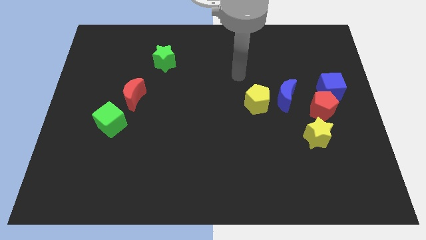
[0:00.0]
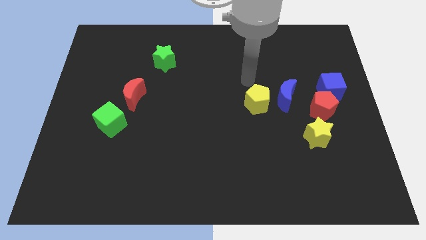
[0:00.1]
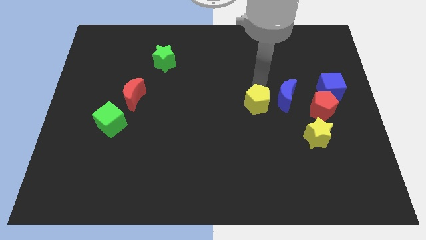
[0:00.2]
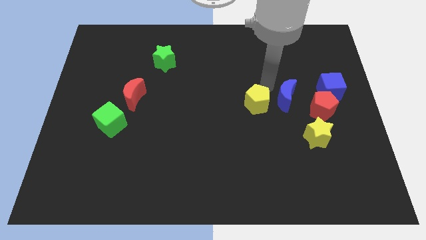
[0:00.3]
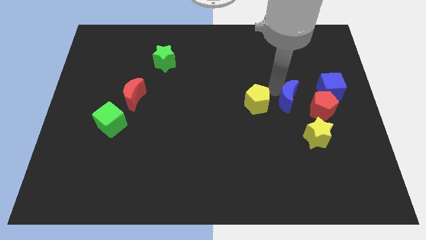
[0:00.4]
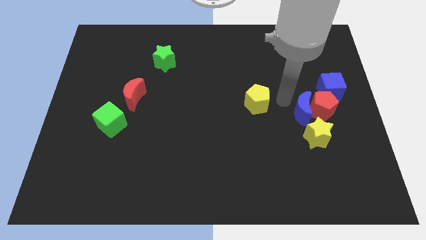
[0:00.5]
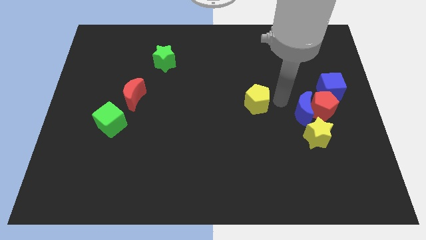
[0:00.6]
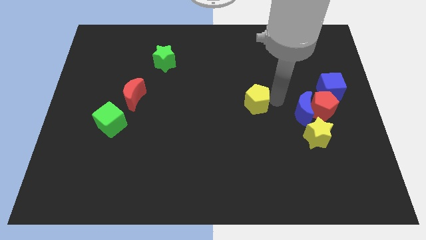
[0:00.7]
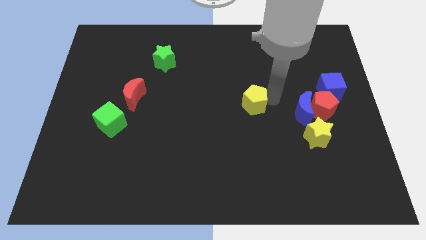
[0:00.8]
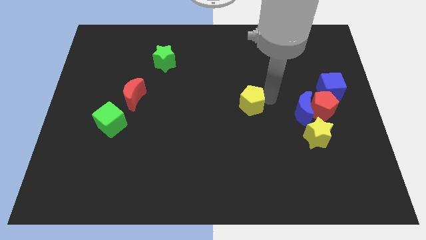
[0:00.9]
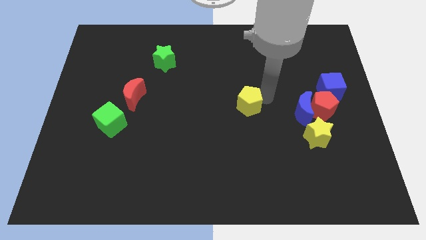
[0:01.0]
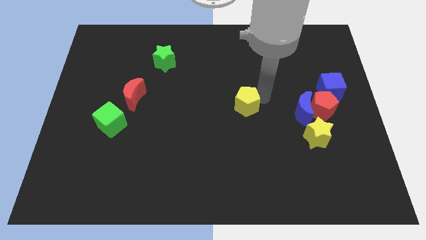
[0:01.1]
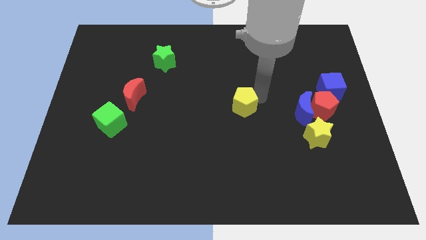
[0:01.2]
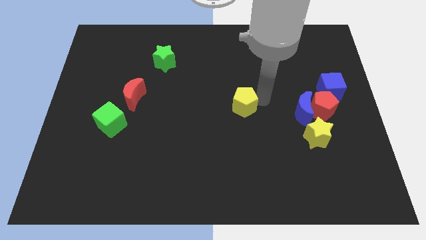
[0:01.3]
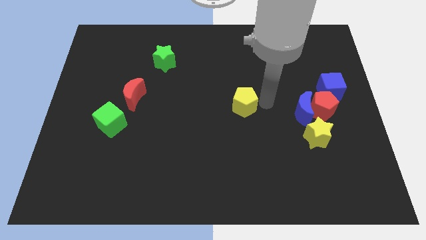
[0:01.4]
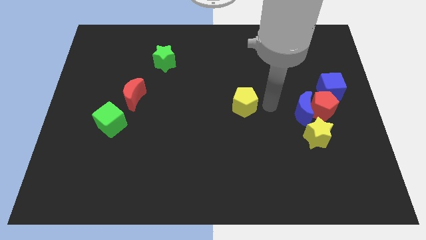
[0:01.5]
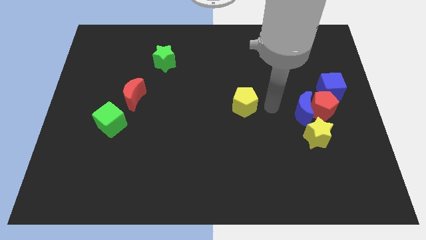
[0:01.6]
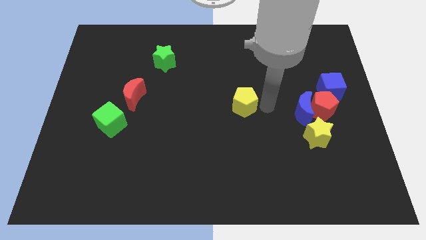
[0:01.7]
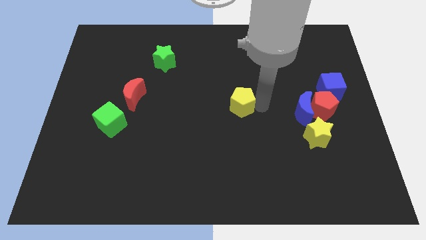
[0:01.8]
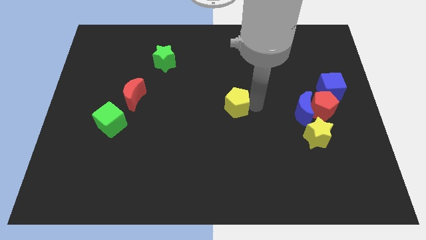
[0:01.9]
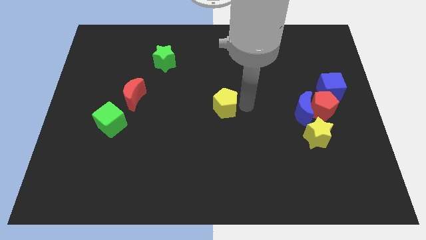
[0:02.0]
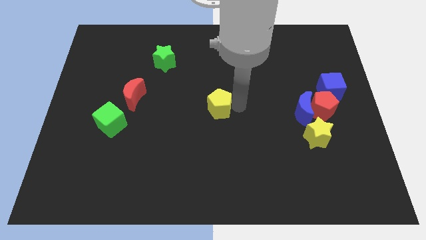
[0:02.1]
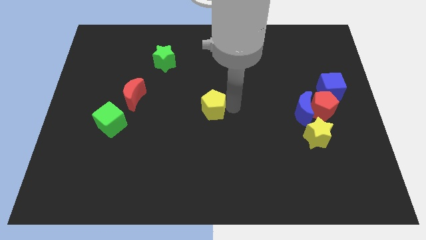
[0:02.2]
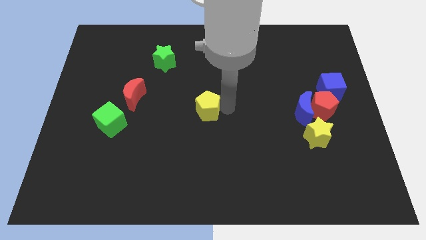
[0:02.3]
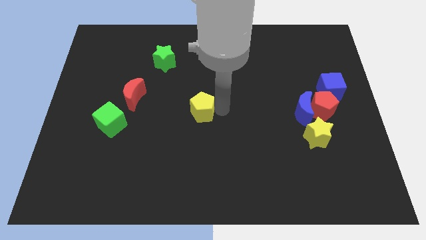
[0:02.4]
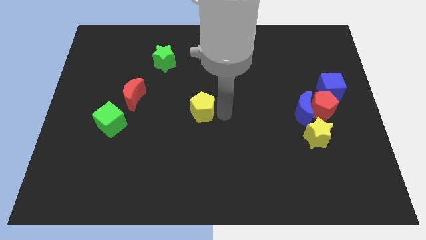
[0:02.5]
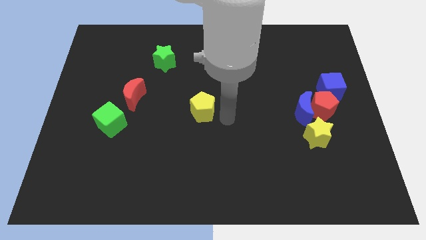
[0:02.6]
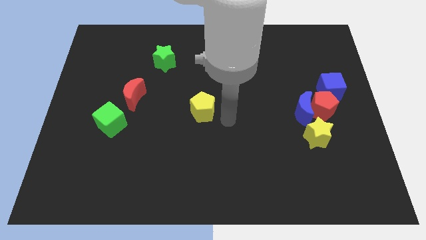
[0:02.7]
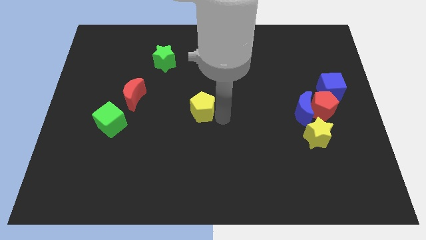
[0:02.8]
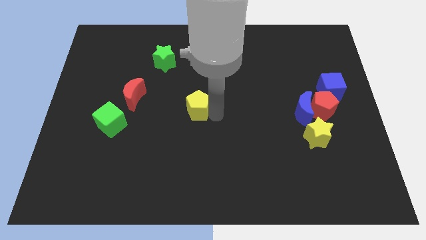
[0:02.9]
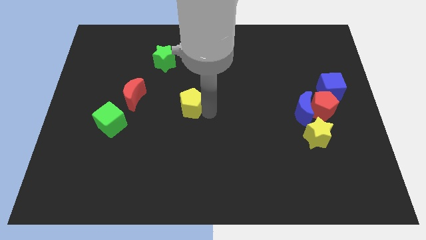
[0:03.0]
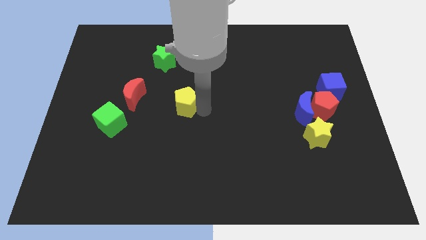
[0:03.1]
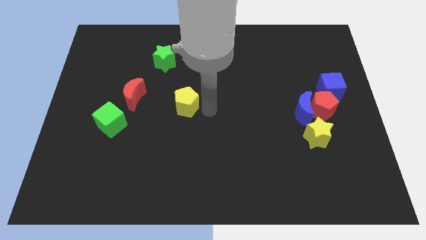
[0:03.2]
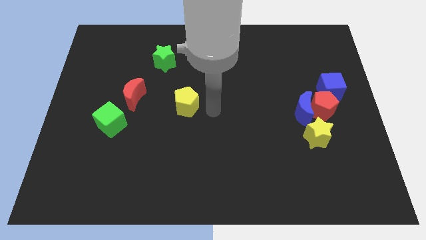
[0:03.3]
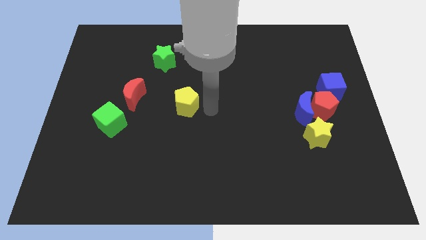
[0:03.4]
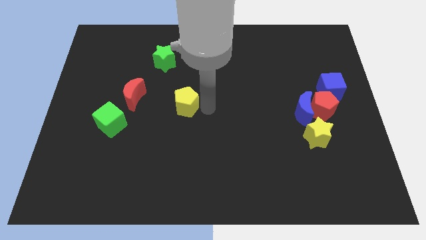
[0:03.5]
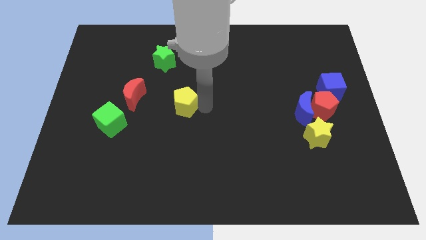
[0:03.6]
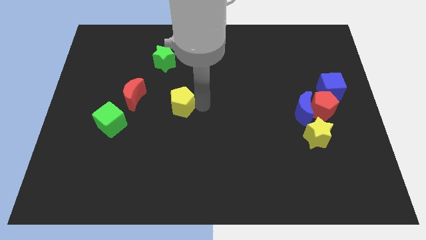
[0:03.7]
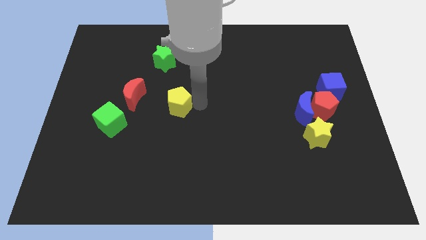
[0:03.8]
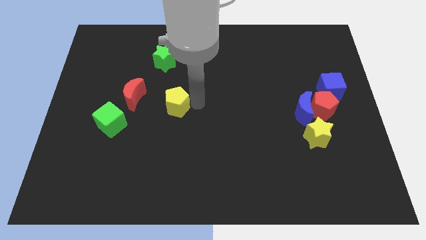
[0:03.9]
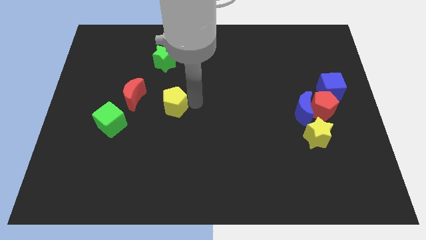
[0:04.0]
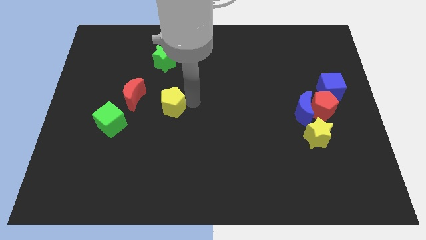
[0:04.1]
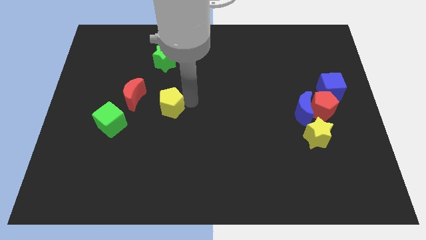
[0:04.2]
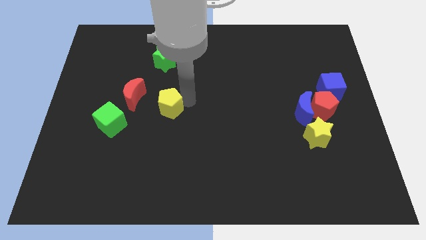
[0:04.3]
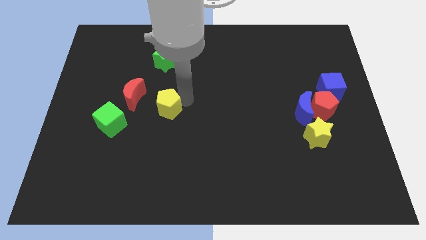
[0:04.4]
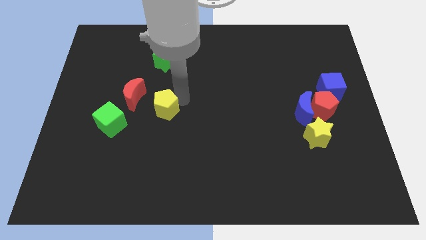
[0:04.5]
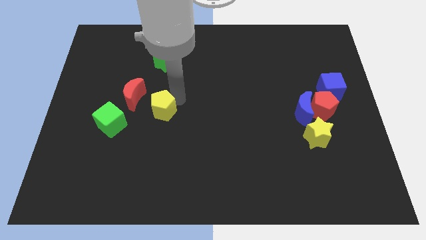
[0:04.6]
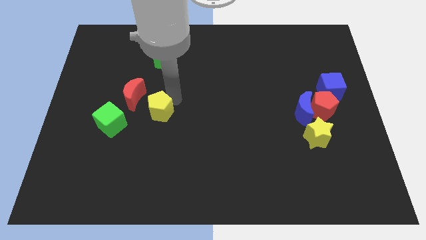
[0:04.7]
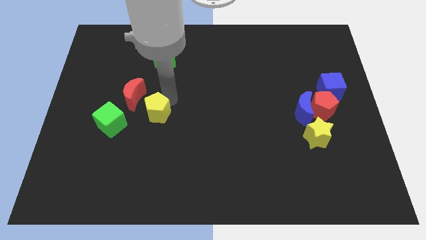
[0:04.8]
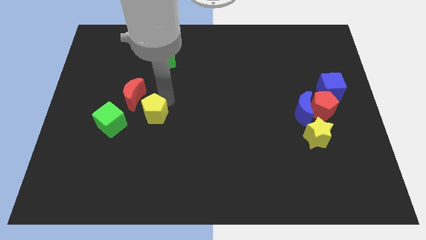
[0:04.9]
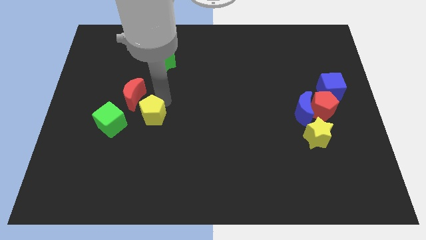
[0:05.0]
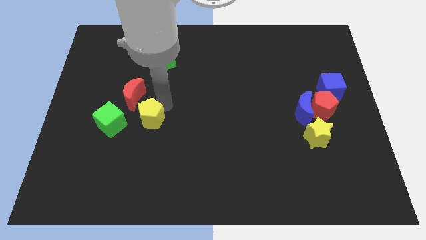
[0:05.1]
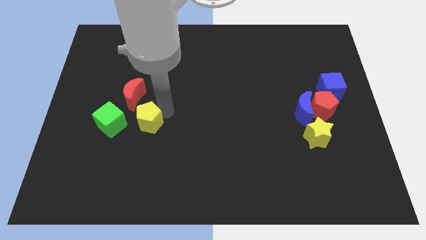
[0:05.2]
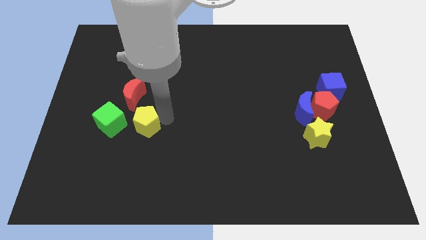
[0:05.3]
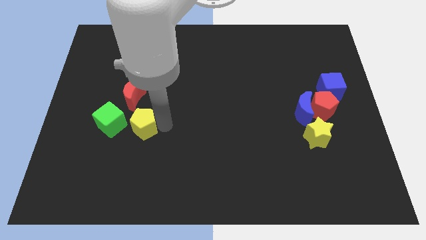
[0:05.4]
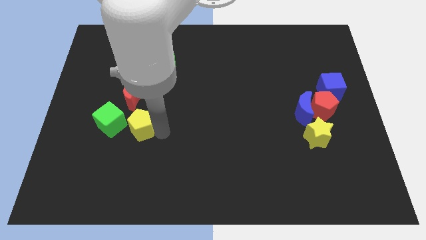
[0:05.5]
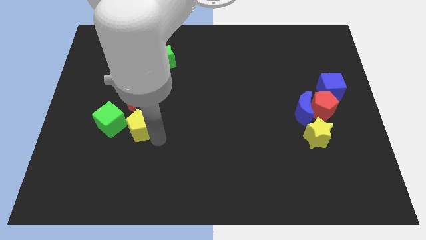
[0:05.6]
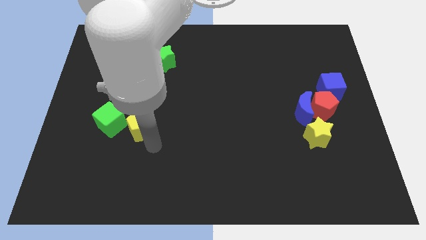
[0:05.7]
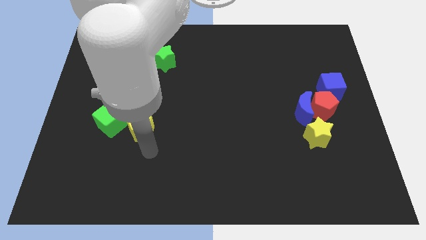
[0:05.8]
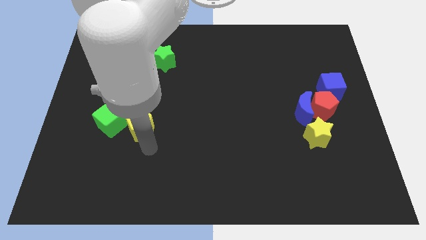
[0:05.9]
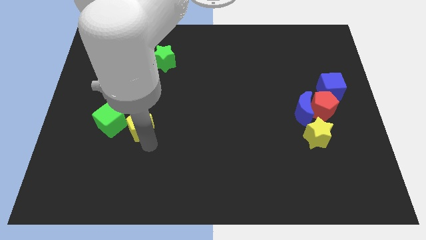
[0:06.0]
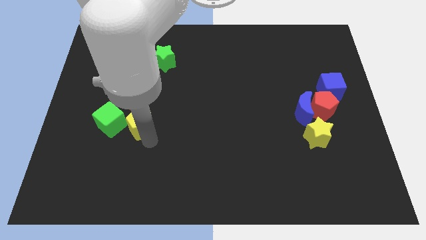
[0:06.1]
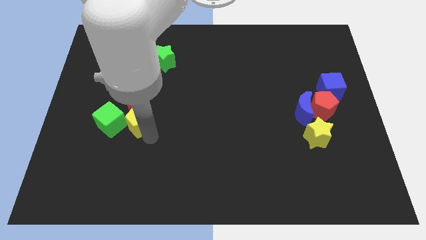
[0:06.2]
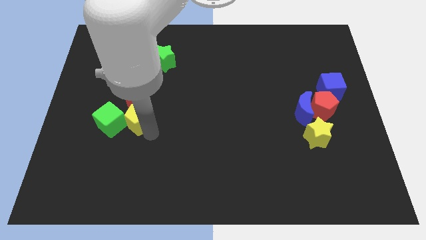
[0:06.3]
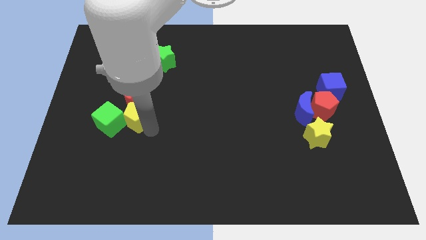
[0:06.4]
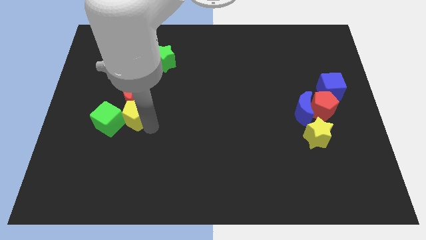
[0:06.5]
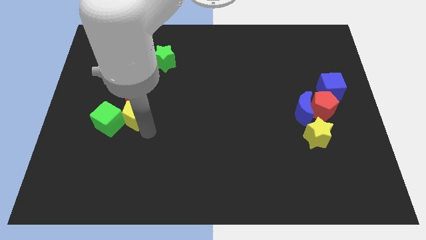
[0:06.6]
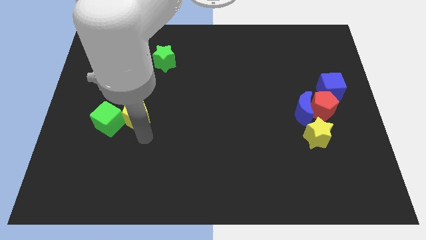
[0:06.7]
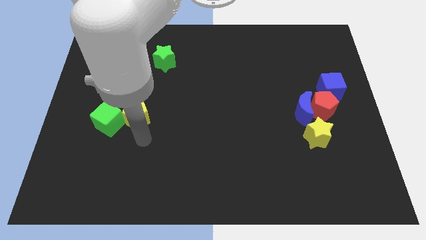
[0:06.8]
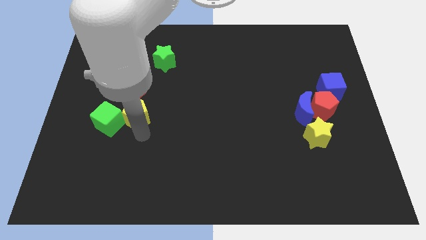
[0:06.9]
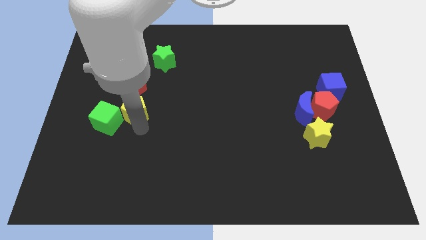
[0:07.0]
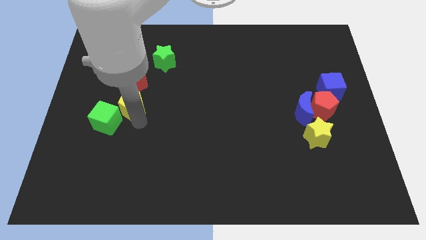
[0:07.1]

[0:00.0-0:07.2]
put the yellow pentagon to the red moon

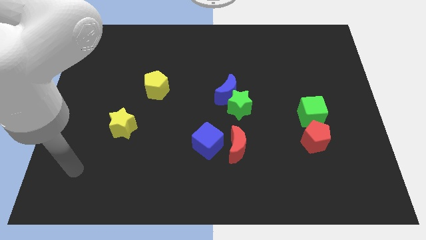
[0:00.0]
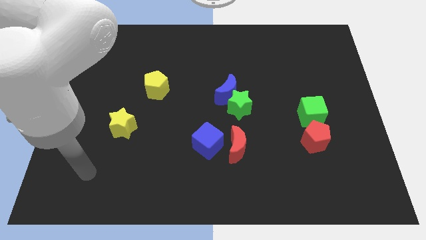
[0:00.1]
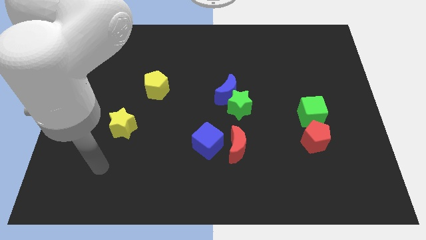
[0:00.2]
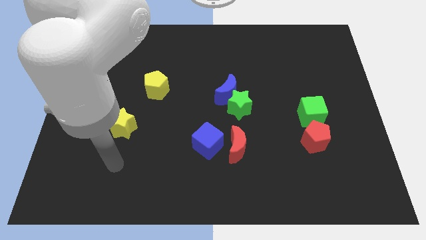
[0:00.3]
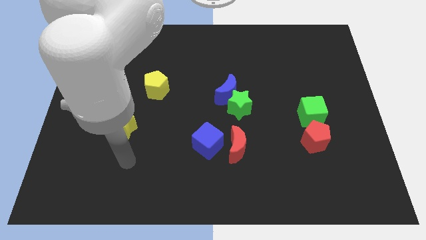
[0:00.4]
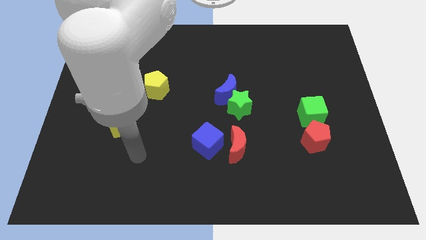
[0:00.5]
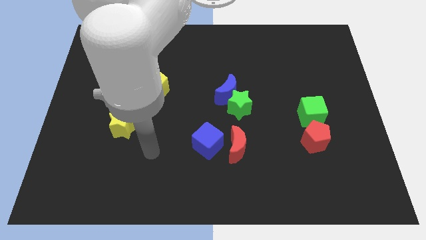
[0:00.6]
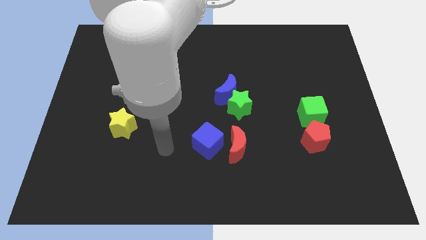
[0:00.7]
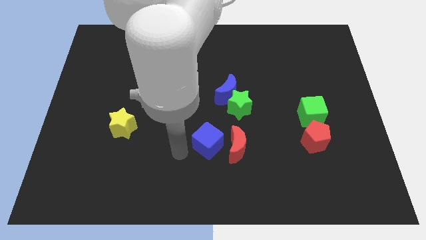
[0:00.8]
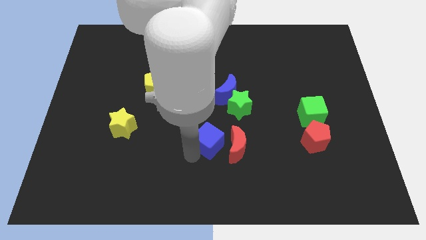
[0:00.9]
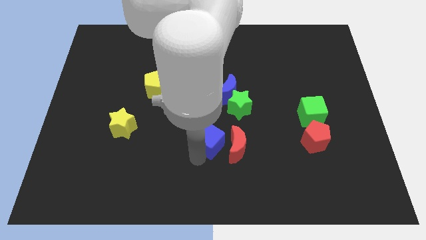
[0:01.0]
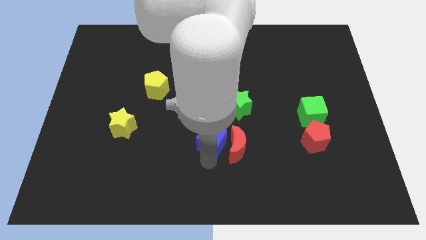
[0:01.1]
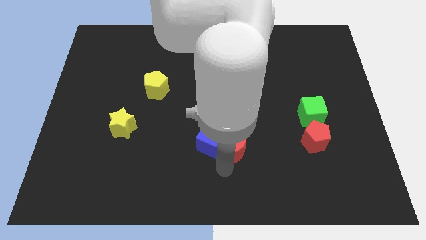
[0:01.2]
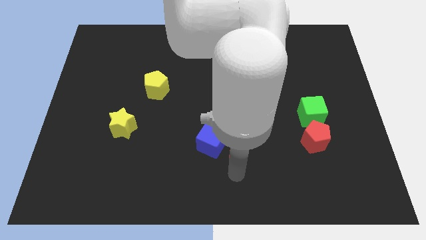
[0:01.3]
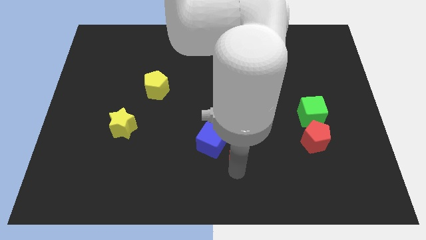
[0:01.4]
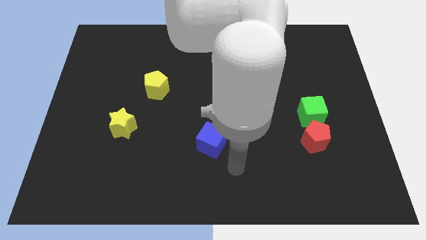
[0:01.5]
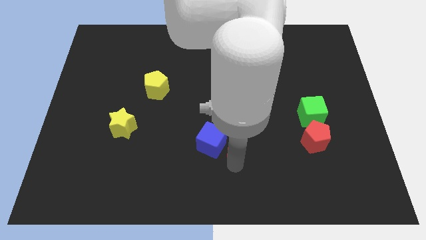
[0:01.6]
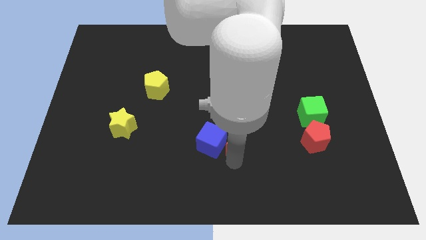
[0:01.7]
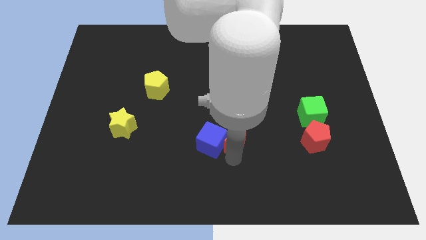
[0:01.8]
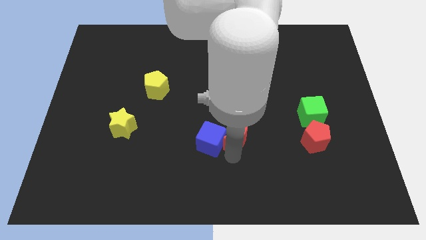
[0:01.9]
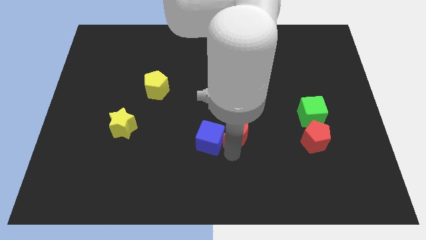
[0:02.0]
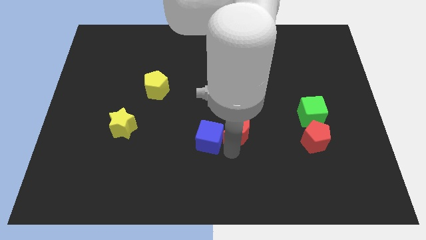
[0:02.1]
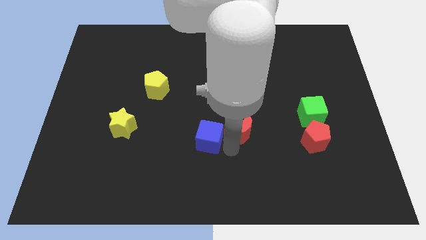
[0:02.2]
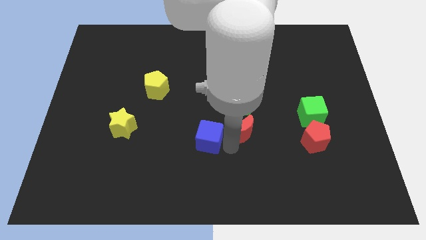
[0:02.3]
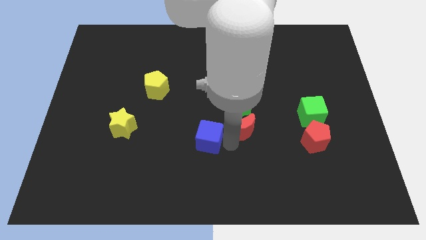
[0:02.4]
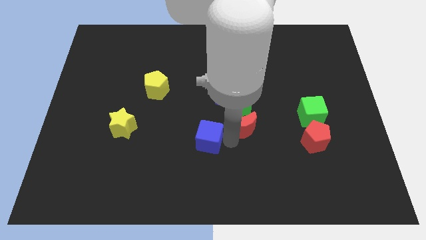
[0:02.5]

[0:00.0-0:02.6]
push the red moon next to the green star
